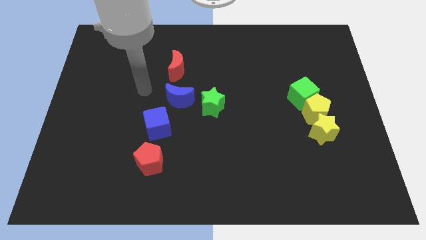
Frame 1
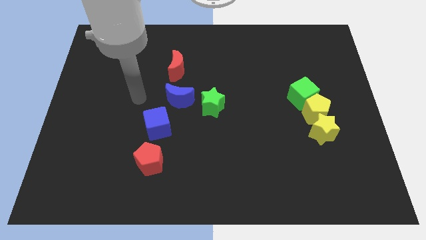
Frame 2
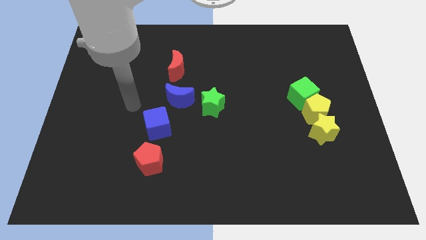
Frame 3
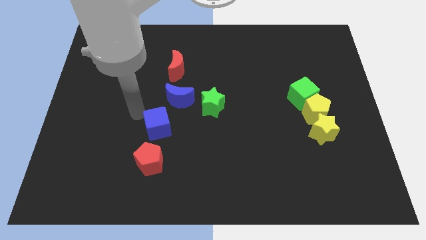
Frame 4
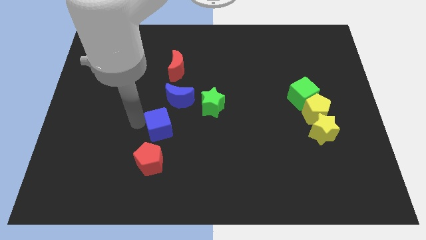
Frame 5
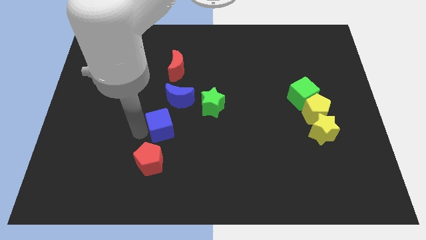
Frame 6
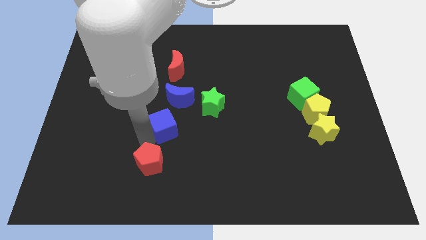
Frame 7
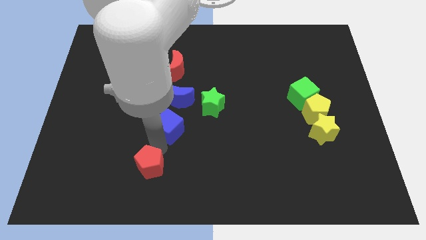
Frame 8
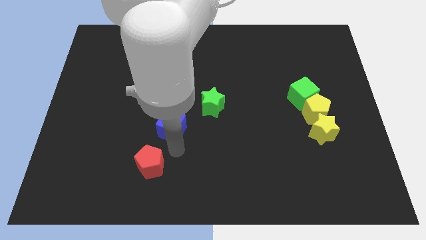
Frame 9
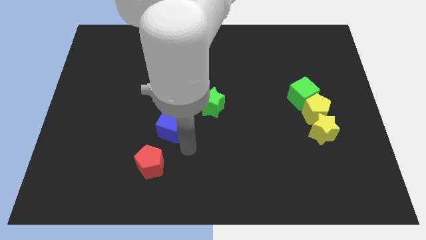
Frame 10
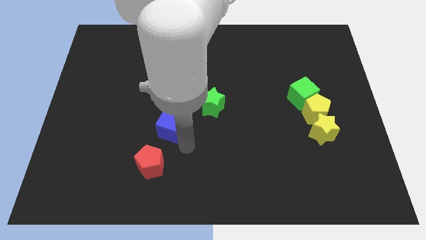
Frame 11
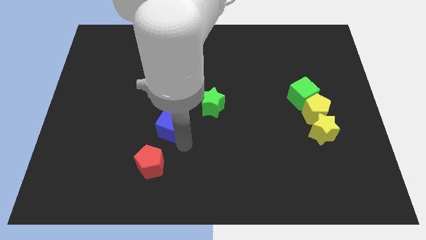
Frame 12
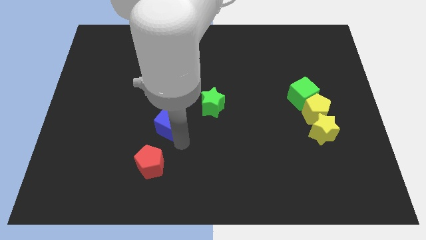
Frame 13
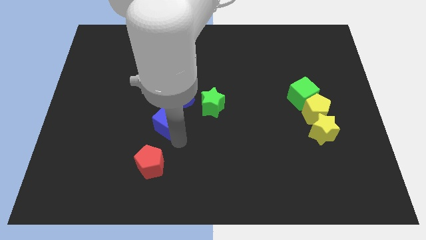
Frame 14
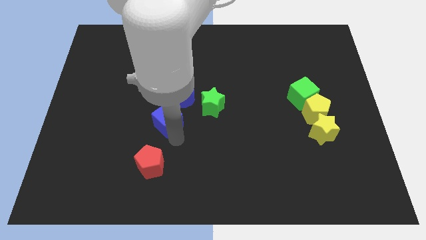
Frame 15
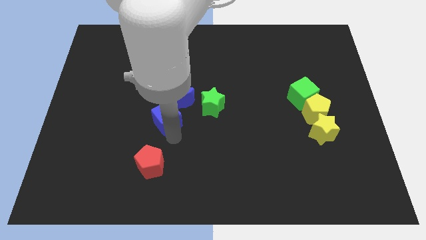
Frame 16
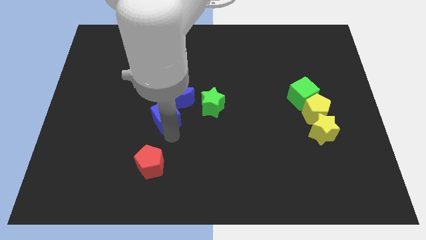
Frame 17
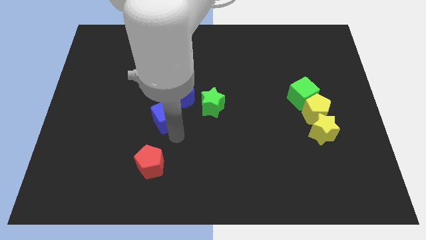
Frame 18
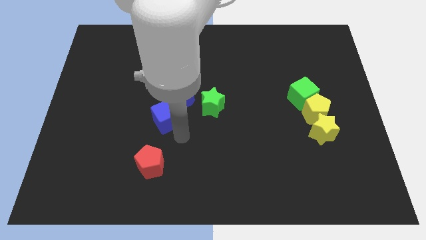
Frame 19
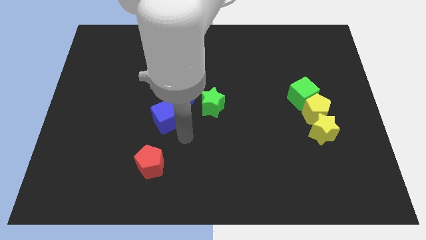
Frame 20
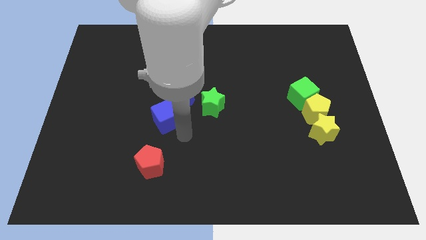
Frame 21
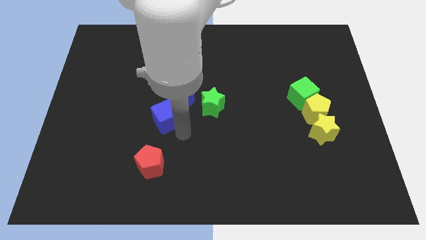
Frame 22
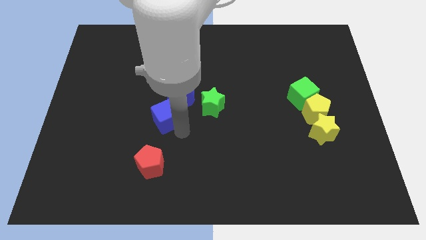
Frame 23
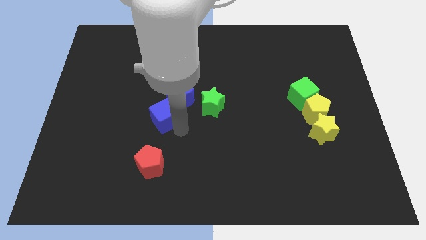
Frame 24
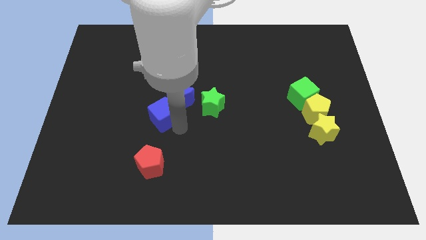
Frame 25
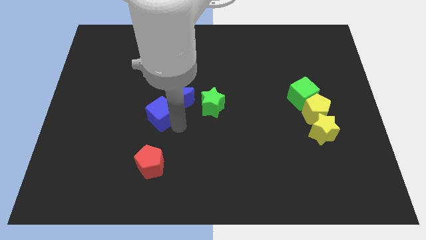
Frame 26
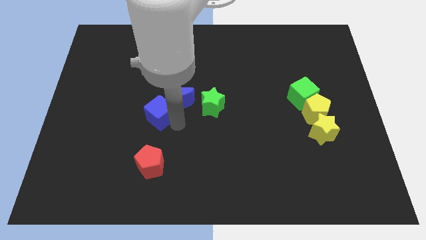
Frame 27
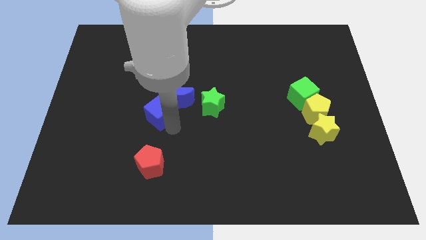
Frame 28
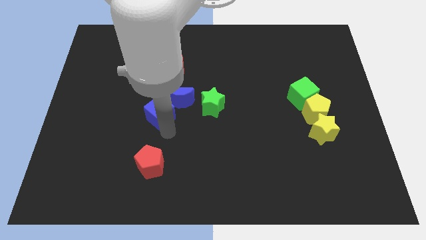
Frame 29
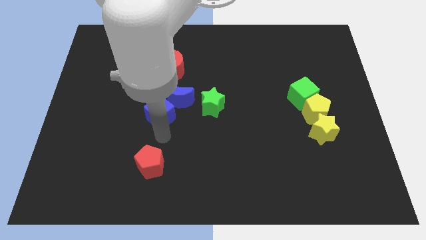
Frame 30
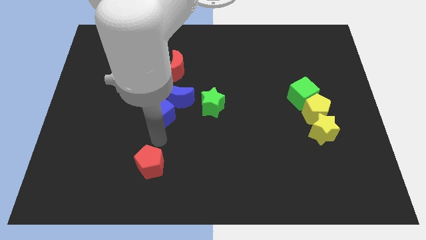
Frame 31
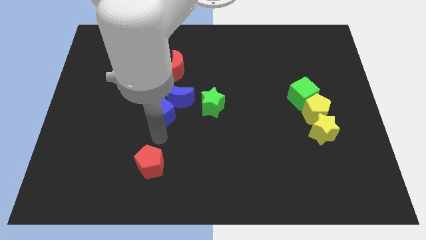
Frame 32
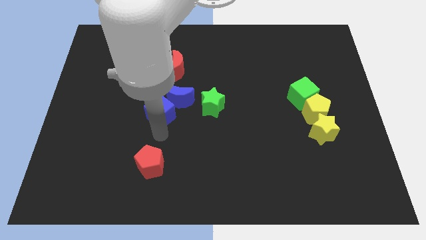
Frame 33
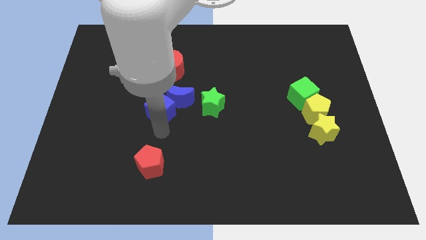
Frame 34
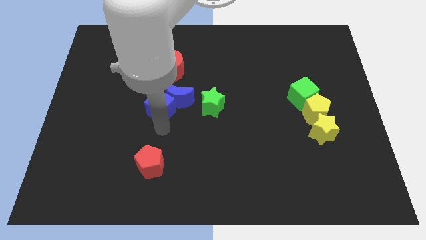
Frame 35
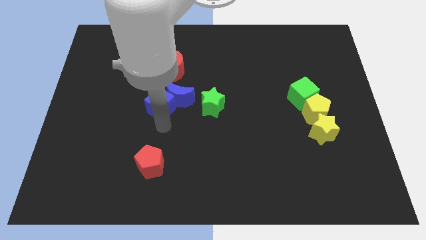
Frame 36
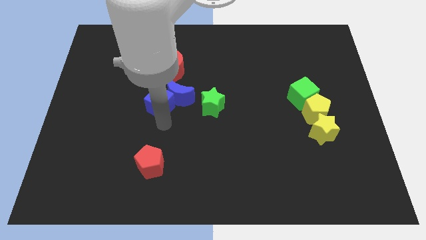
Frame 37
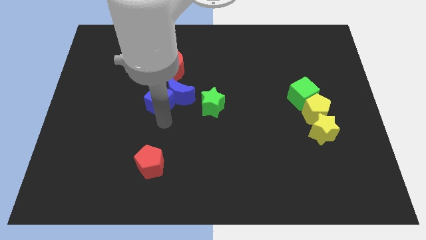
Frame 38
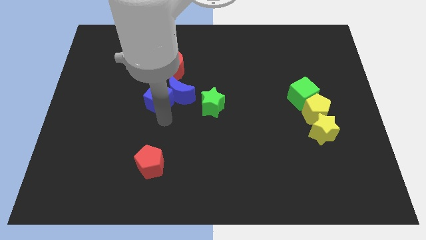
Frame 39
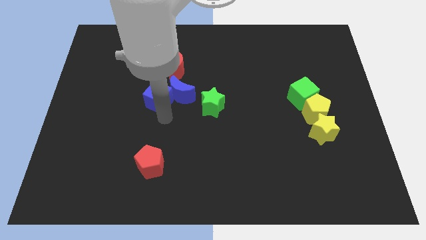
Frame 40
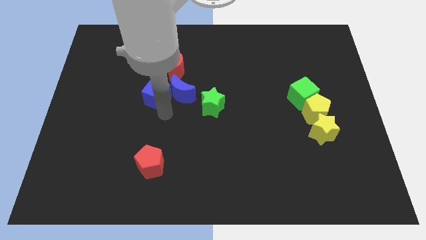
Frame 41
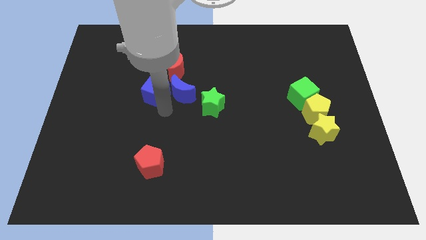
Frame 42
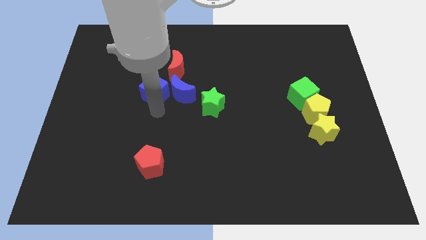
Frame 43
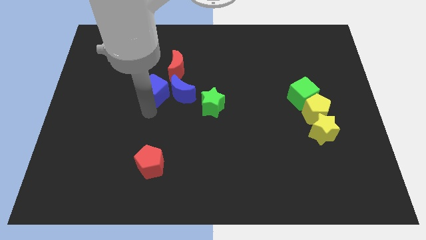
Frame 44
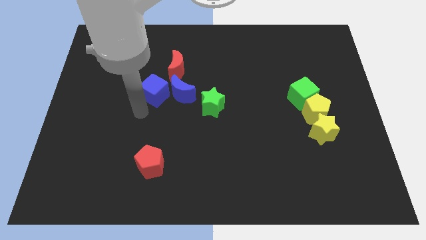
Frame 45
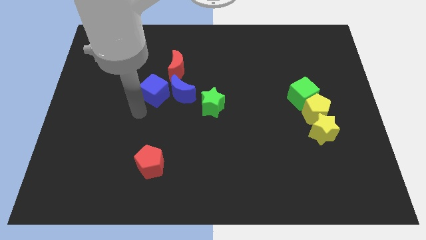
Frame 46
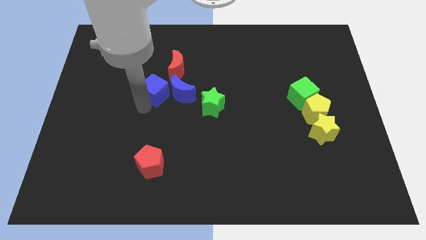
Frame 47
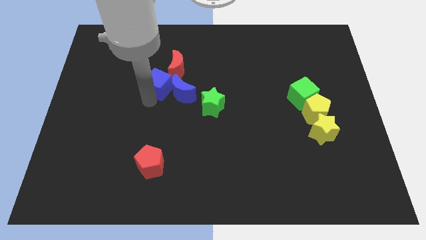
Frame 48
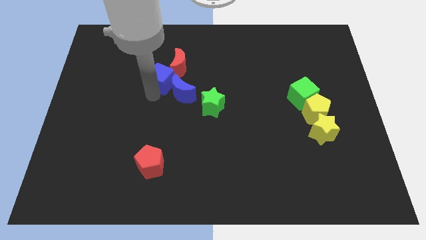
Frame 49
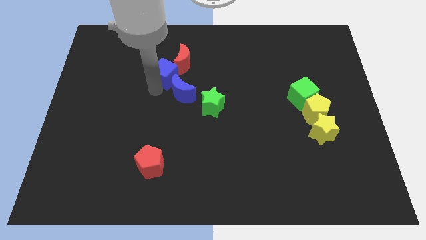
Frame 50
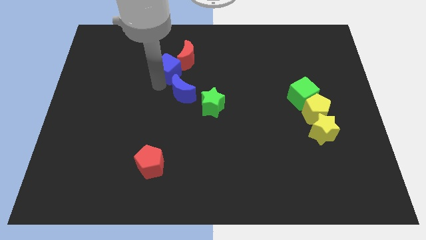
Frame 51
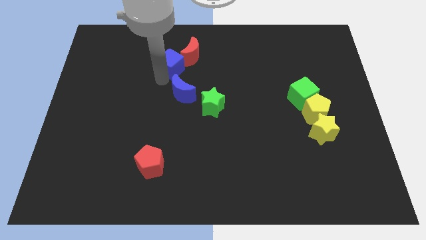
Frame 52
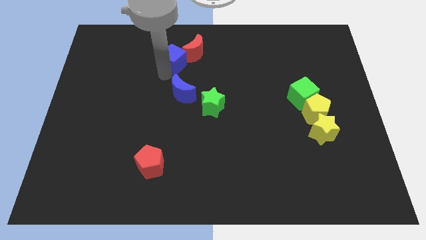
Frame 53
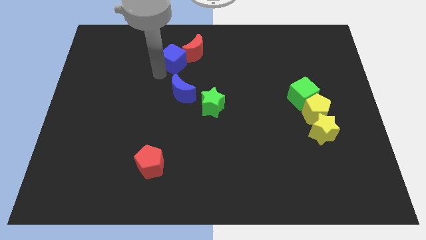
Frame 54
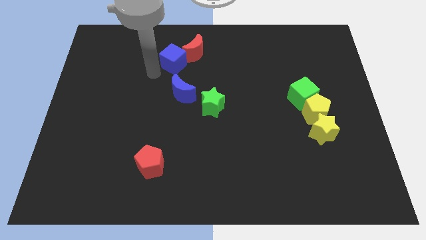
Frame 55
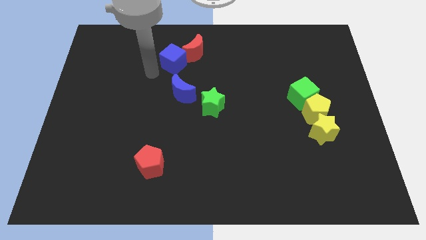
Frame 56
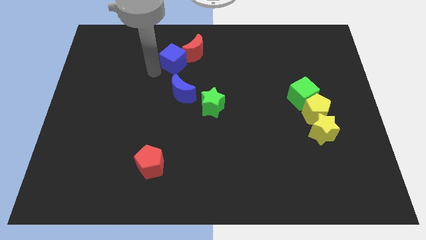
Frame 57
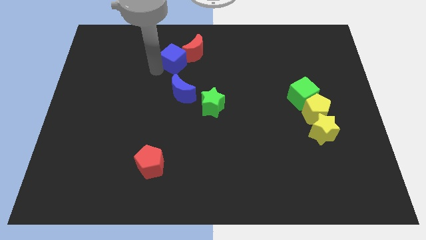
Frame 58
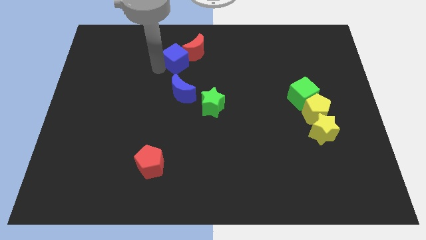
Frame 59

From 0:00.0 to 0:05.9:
slide the blue cube next to the red moon

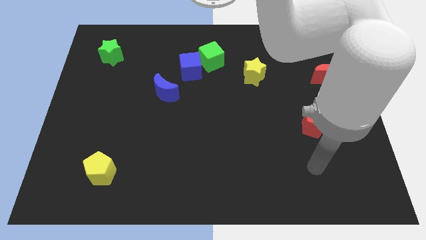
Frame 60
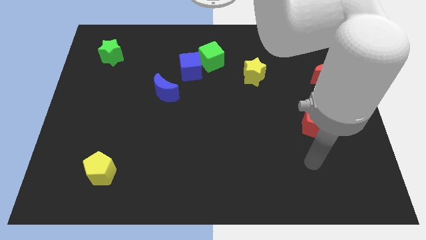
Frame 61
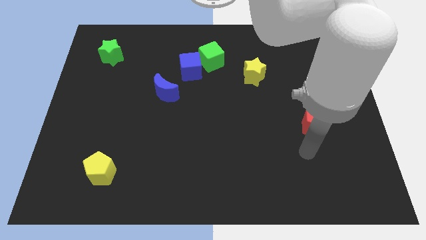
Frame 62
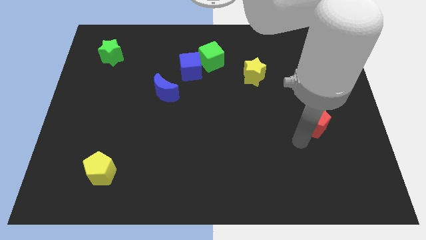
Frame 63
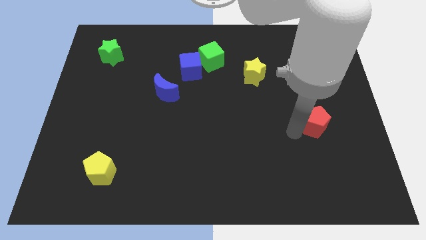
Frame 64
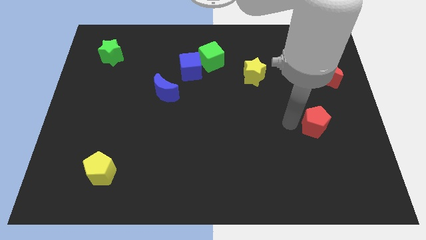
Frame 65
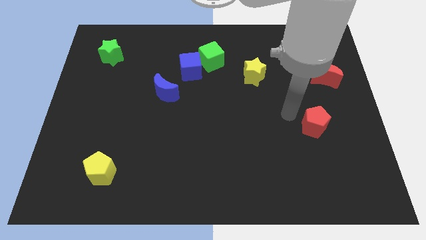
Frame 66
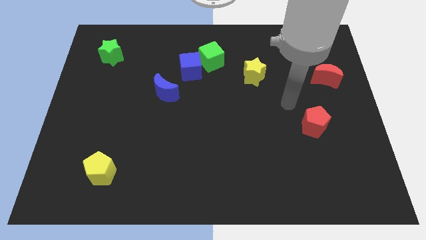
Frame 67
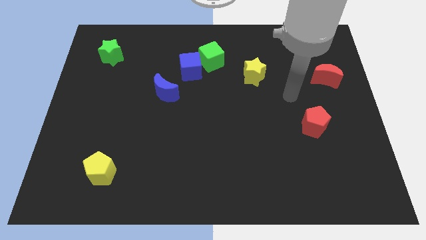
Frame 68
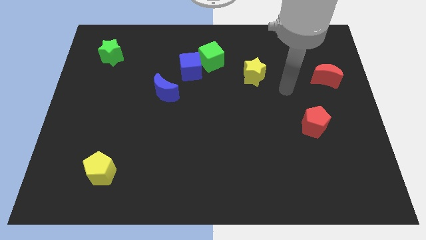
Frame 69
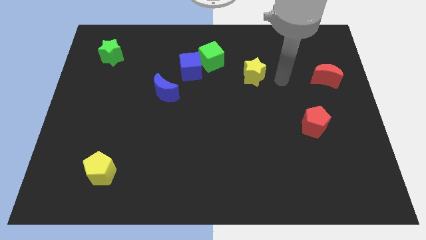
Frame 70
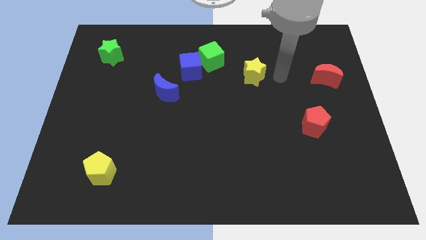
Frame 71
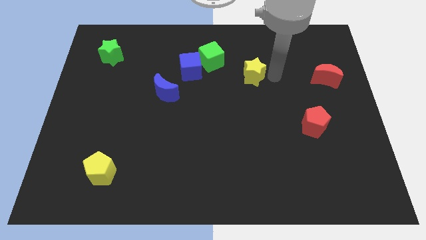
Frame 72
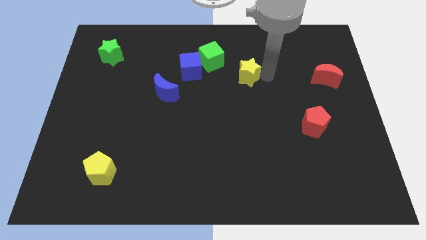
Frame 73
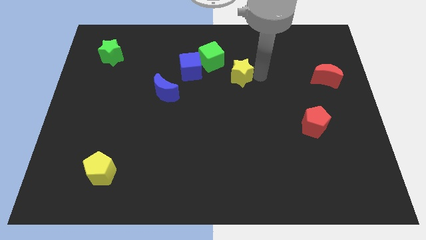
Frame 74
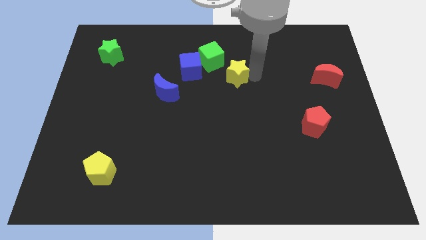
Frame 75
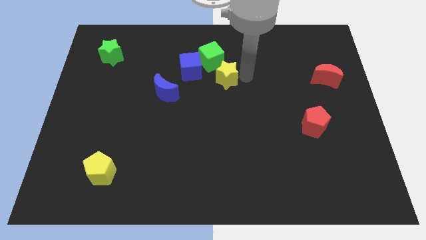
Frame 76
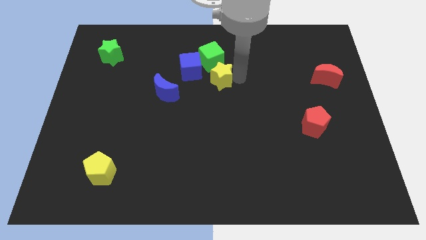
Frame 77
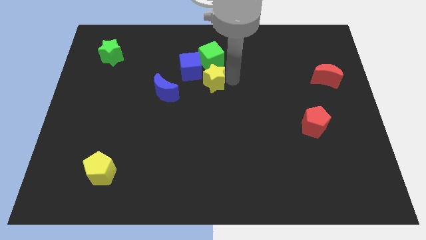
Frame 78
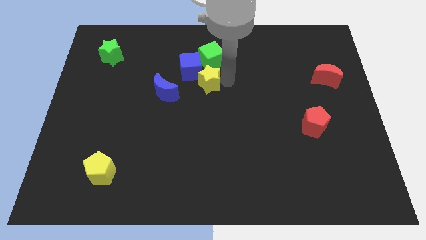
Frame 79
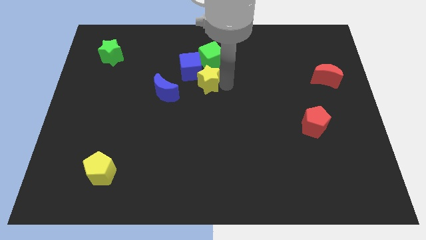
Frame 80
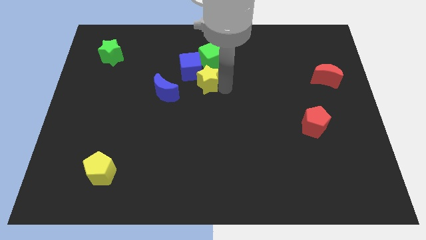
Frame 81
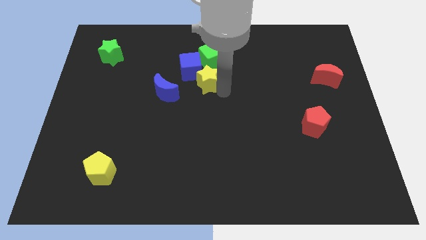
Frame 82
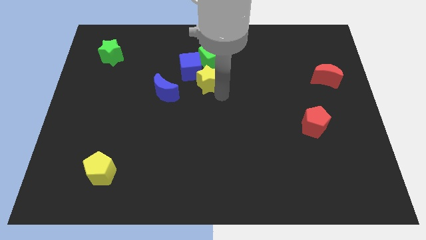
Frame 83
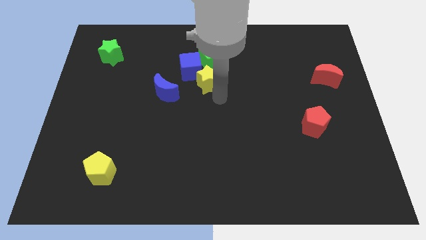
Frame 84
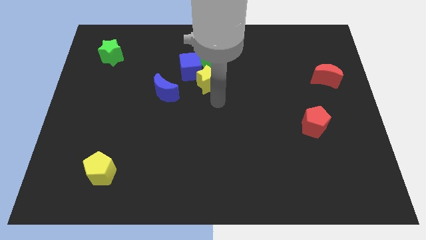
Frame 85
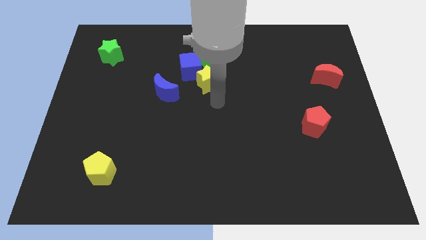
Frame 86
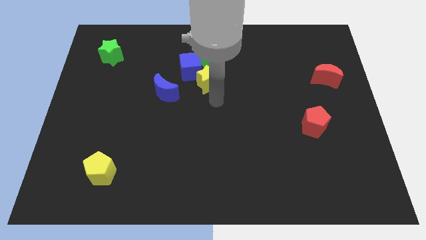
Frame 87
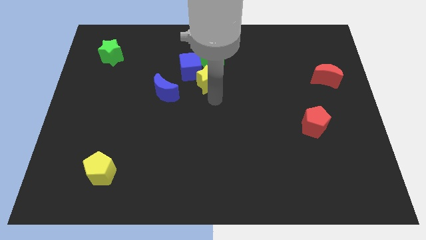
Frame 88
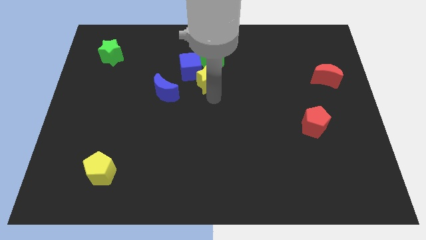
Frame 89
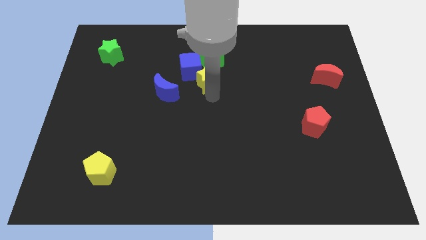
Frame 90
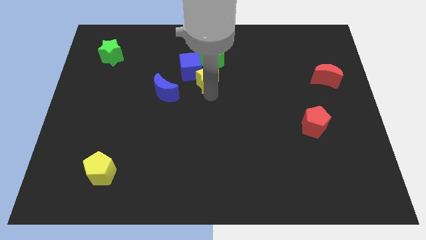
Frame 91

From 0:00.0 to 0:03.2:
put the yellow star towards the blue cube
